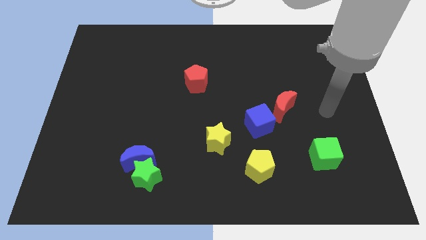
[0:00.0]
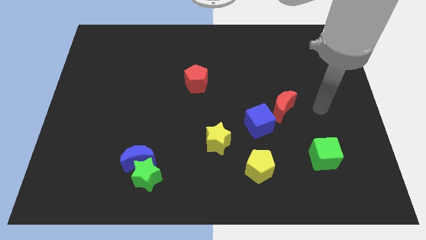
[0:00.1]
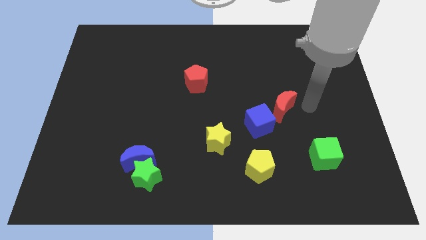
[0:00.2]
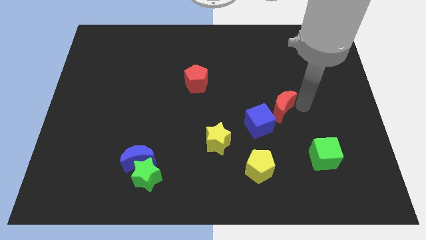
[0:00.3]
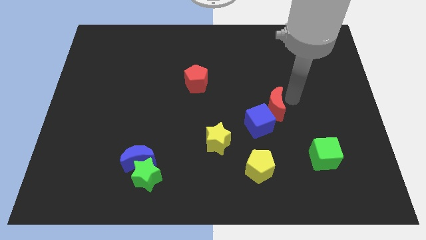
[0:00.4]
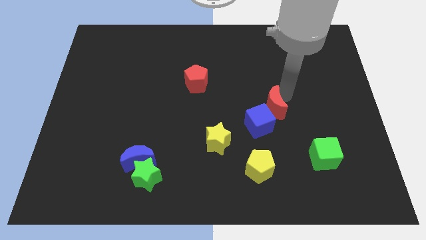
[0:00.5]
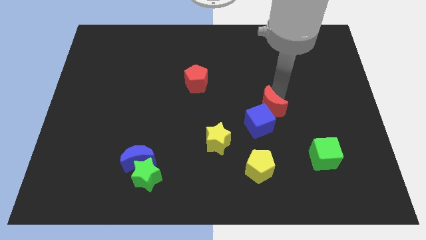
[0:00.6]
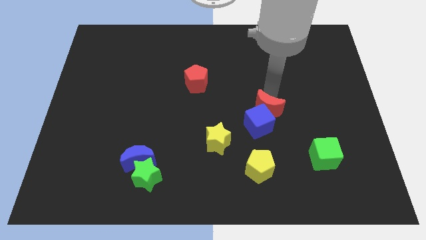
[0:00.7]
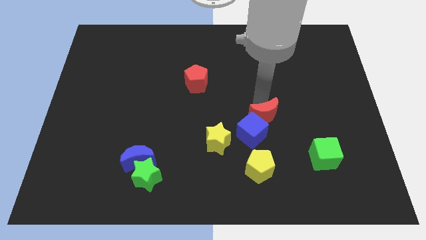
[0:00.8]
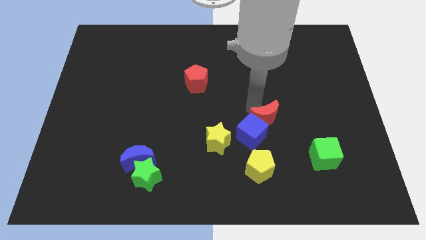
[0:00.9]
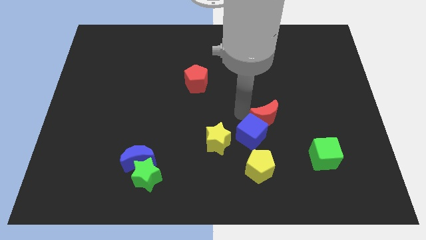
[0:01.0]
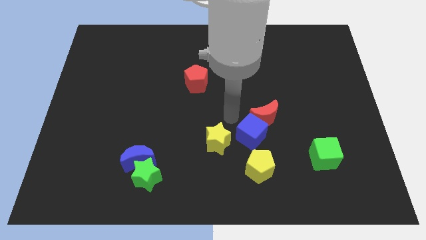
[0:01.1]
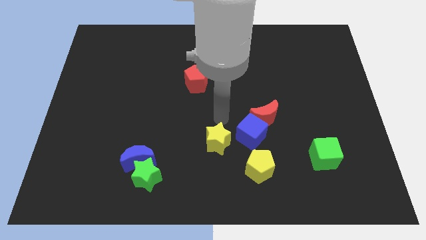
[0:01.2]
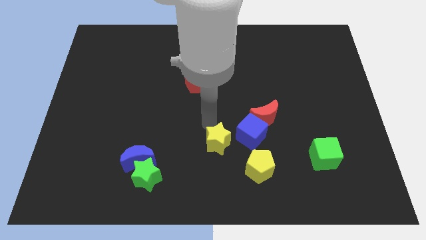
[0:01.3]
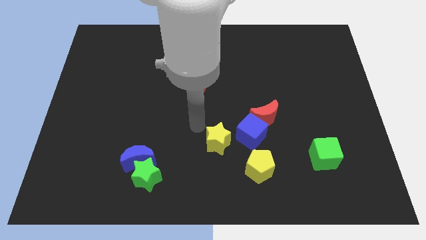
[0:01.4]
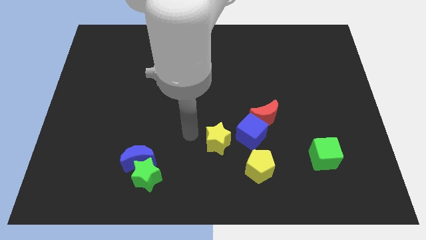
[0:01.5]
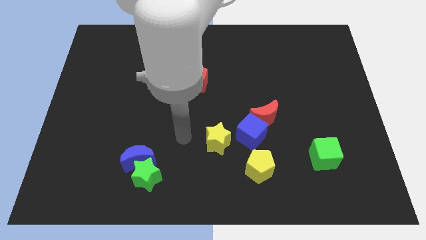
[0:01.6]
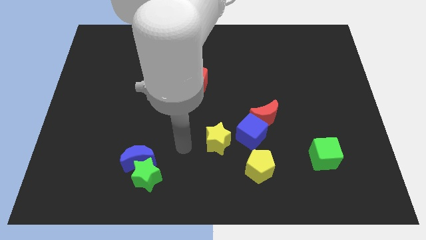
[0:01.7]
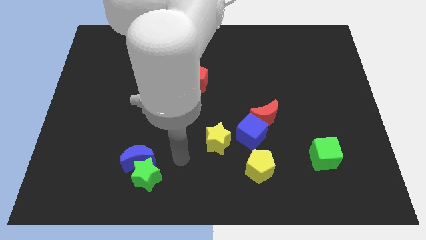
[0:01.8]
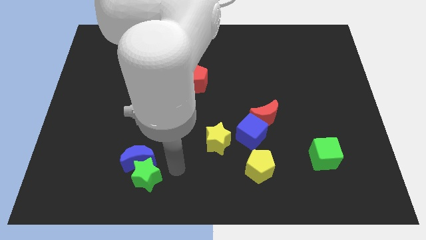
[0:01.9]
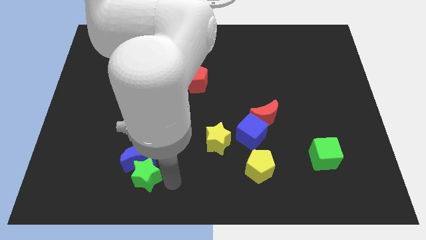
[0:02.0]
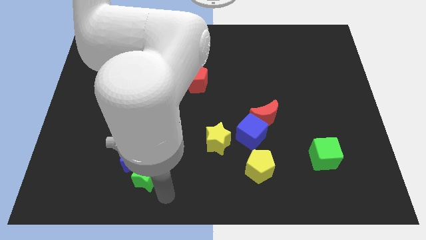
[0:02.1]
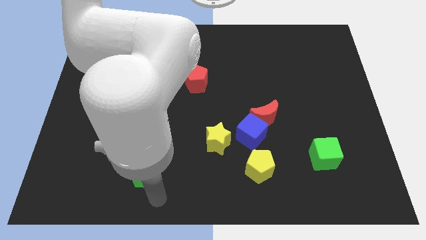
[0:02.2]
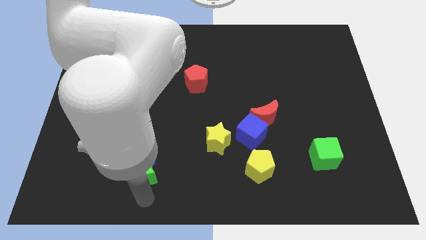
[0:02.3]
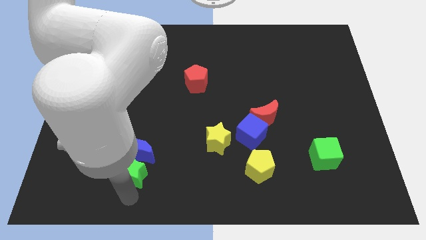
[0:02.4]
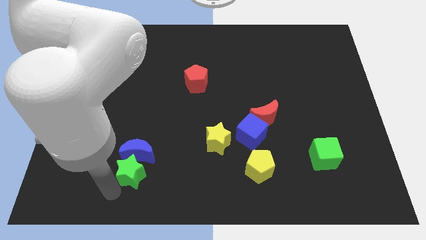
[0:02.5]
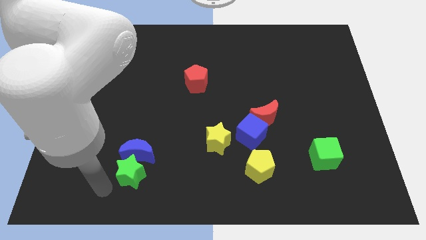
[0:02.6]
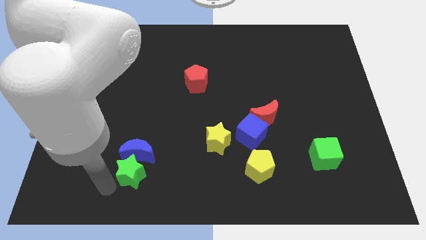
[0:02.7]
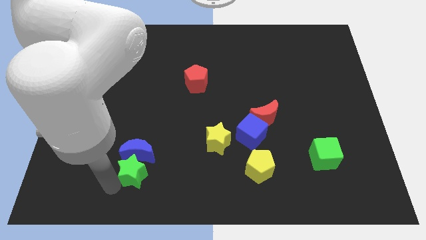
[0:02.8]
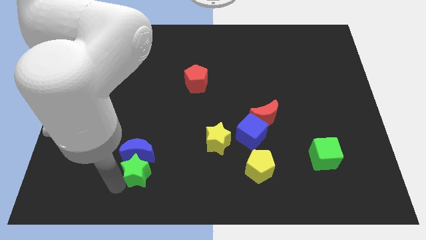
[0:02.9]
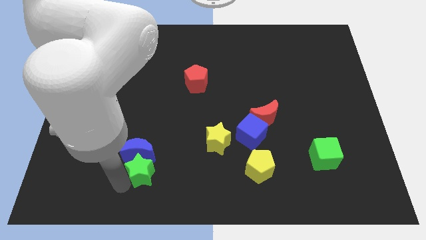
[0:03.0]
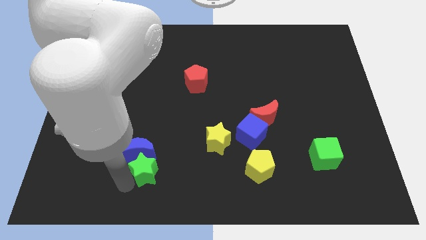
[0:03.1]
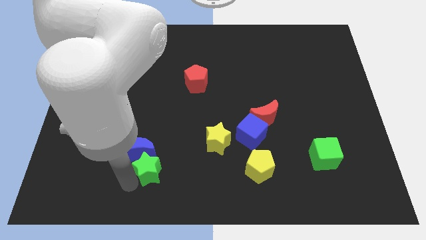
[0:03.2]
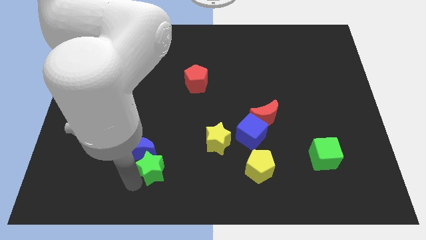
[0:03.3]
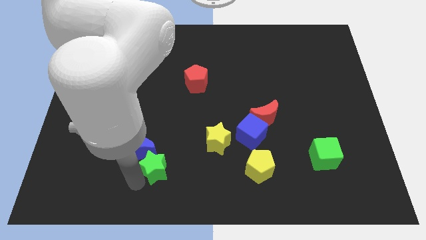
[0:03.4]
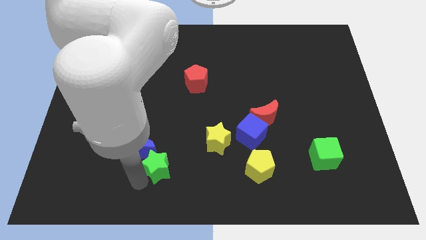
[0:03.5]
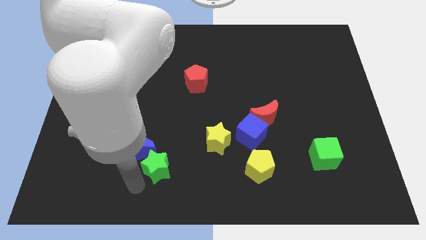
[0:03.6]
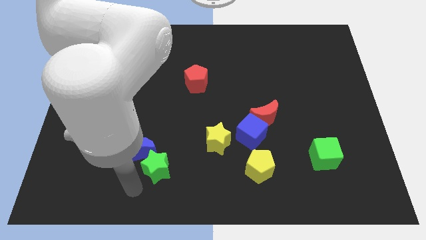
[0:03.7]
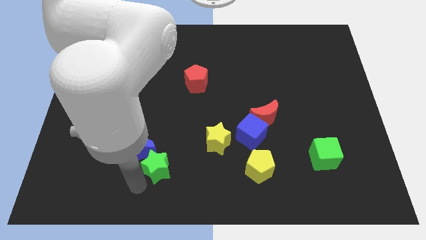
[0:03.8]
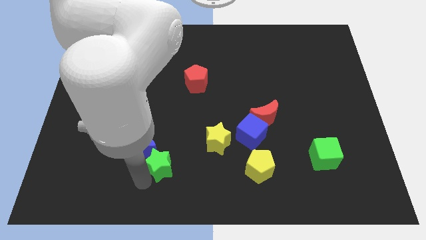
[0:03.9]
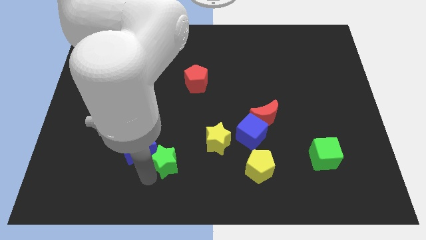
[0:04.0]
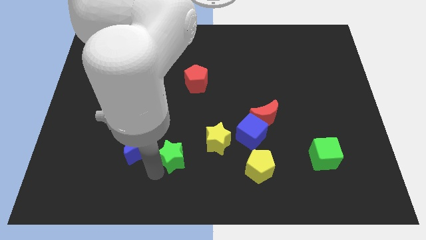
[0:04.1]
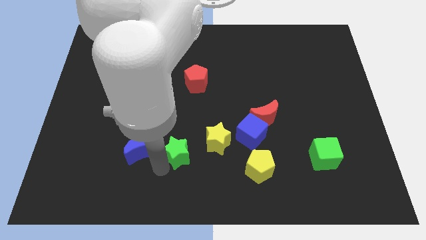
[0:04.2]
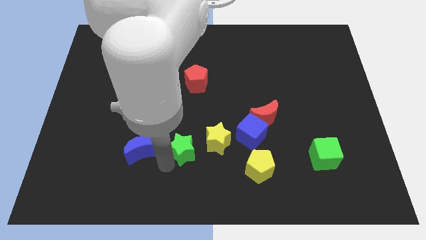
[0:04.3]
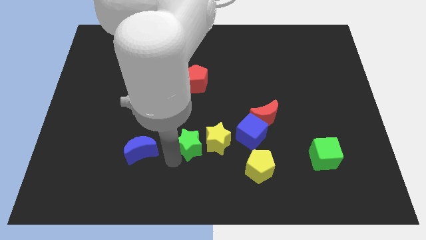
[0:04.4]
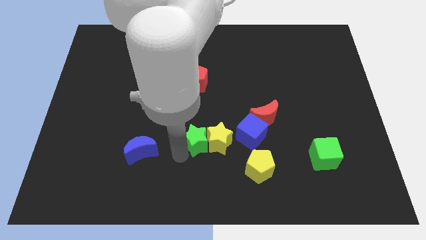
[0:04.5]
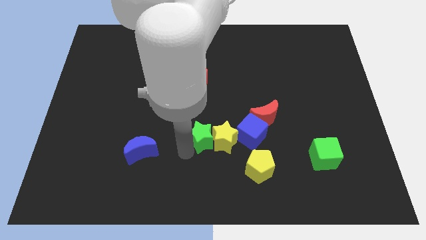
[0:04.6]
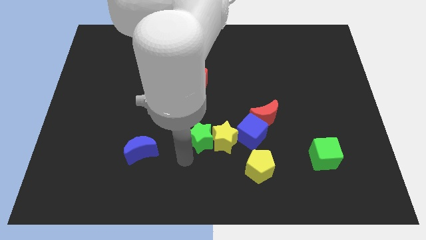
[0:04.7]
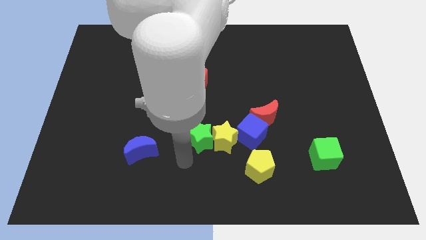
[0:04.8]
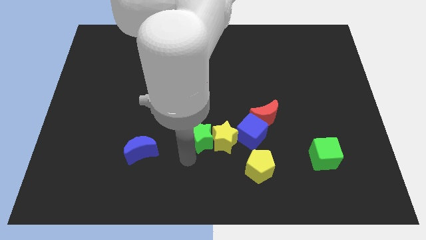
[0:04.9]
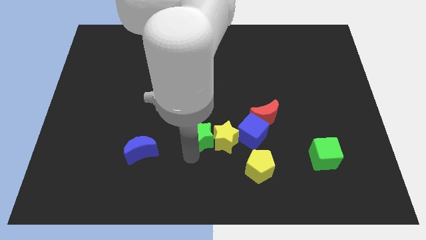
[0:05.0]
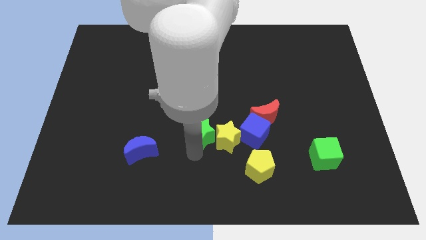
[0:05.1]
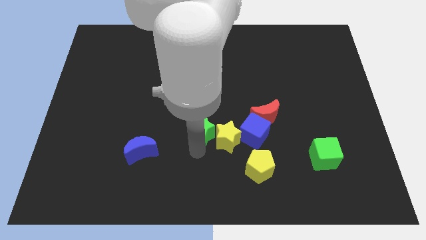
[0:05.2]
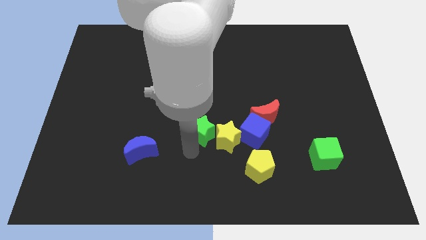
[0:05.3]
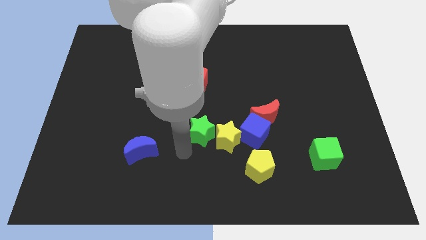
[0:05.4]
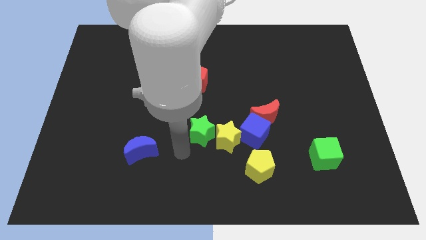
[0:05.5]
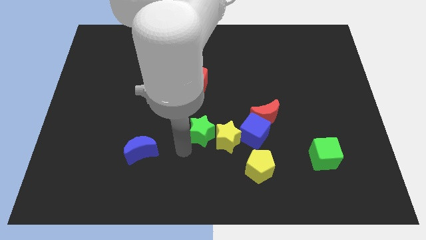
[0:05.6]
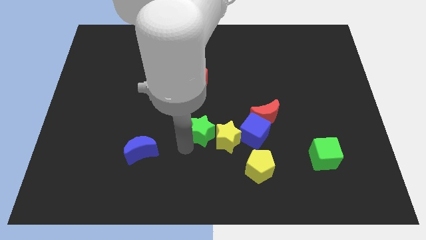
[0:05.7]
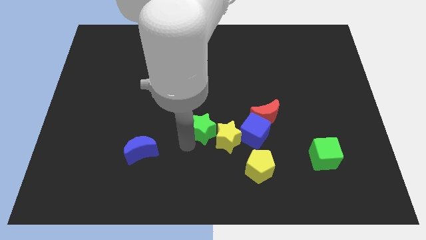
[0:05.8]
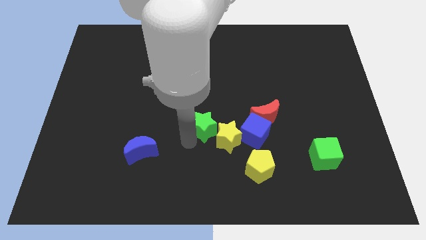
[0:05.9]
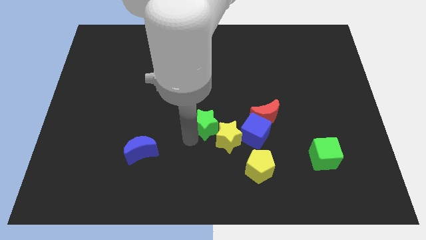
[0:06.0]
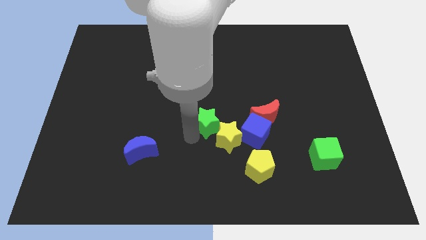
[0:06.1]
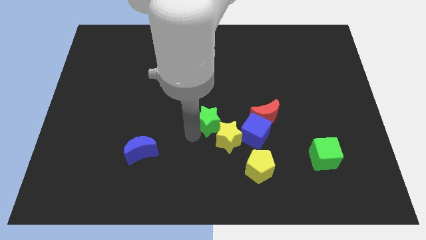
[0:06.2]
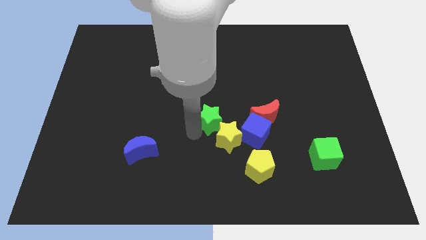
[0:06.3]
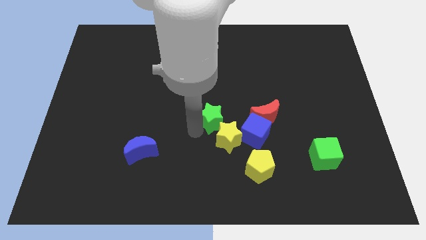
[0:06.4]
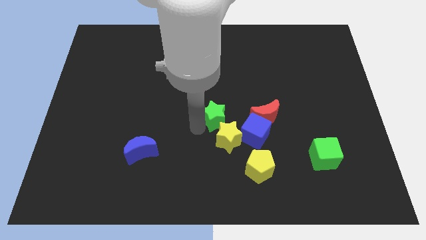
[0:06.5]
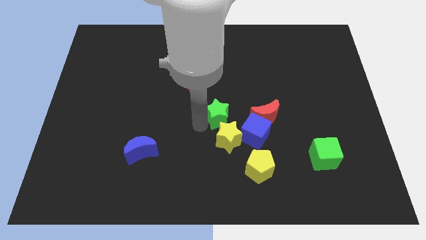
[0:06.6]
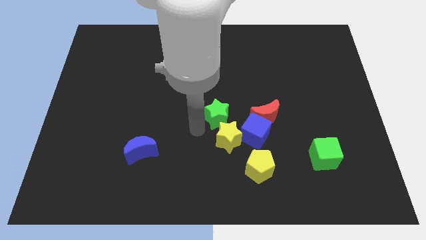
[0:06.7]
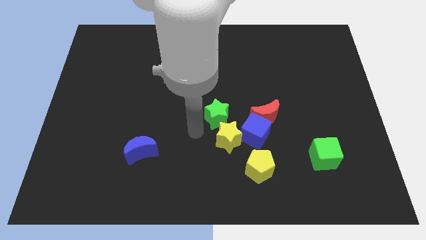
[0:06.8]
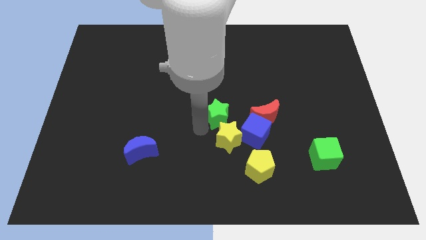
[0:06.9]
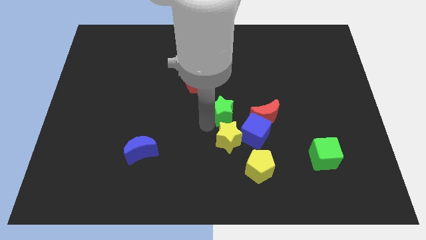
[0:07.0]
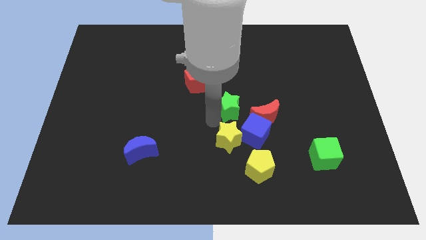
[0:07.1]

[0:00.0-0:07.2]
slide the green star to the top left of the red moon
